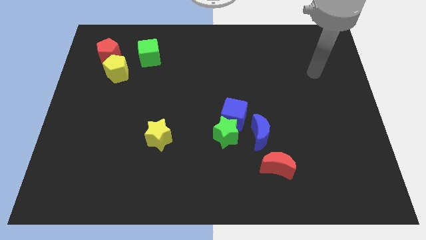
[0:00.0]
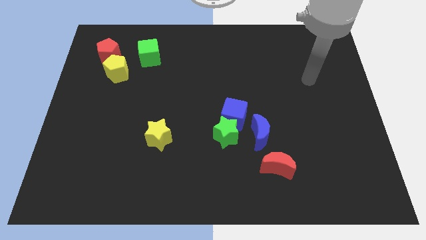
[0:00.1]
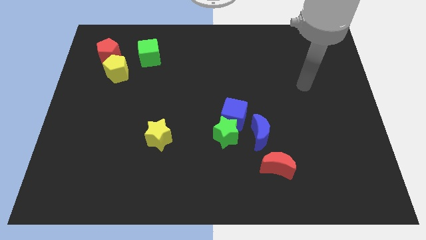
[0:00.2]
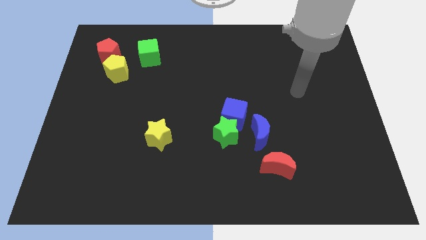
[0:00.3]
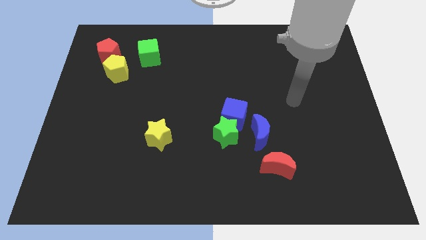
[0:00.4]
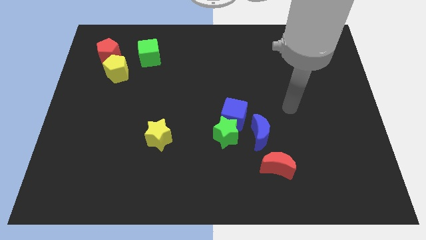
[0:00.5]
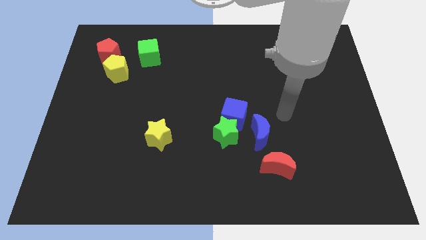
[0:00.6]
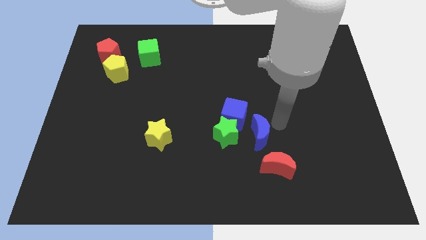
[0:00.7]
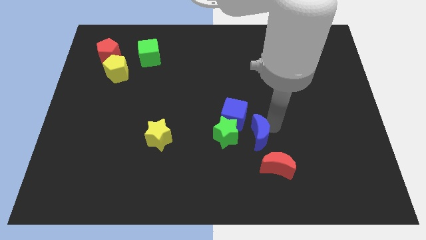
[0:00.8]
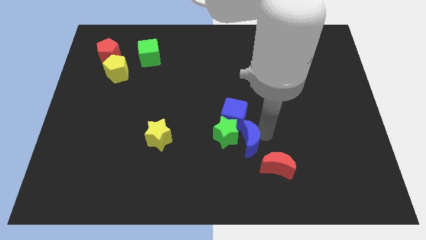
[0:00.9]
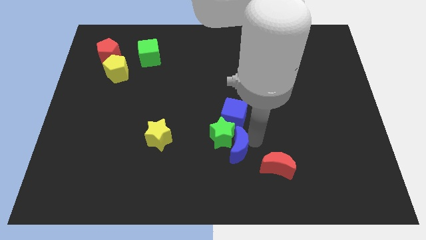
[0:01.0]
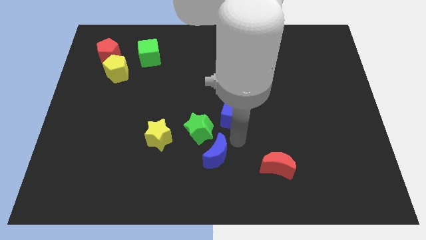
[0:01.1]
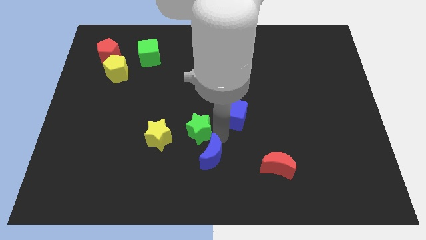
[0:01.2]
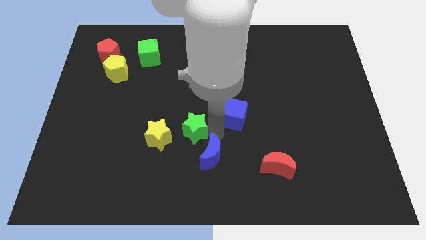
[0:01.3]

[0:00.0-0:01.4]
separate the blue cube from the green star and blue moon

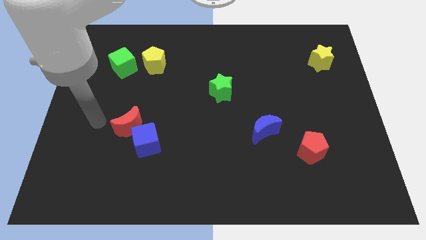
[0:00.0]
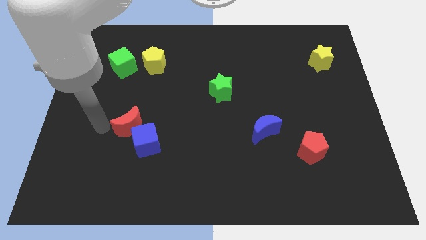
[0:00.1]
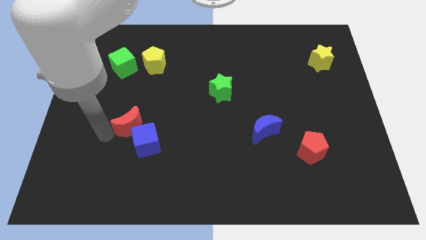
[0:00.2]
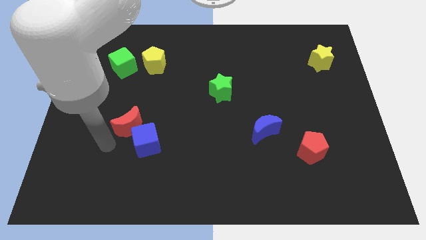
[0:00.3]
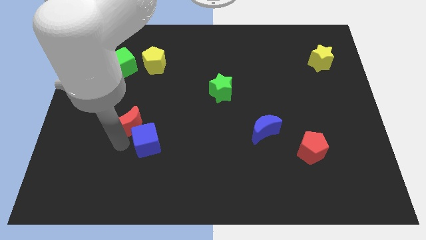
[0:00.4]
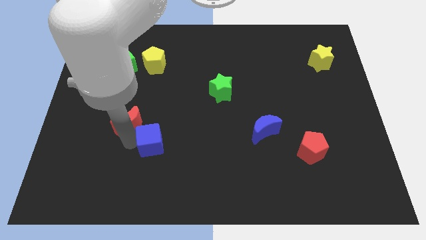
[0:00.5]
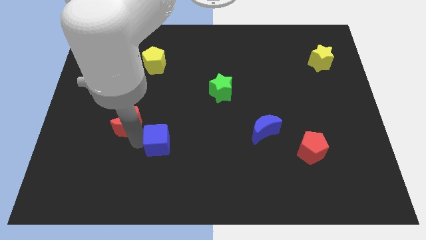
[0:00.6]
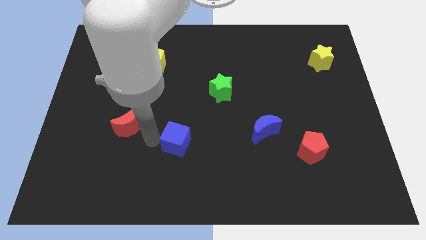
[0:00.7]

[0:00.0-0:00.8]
pull the red moon apart from the blue cube

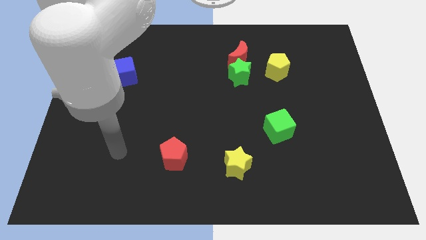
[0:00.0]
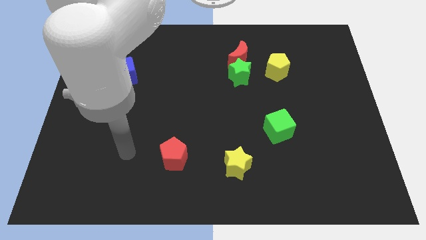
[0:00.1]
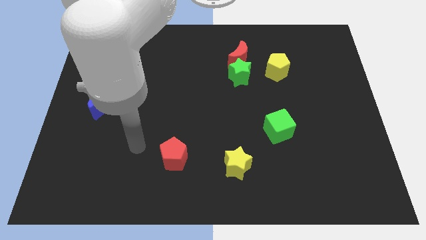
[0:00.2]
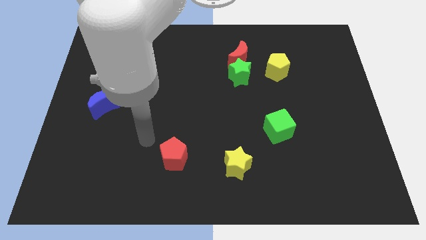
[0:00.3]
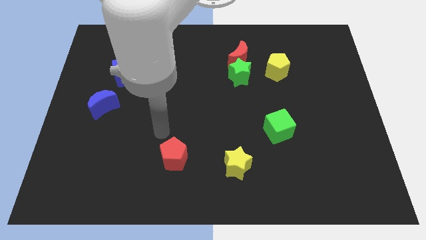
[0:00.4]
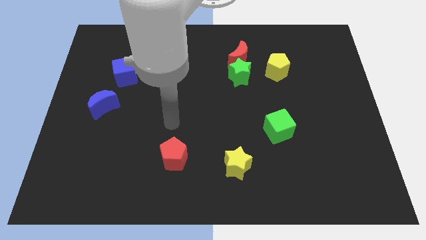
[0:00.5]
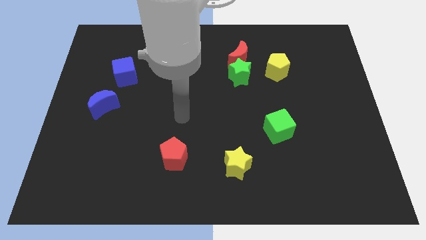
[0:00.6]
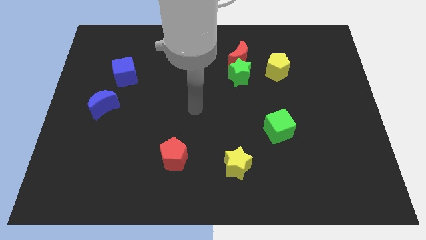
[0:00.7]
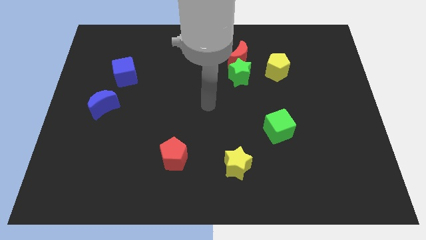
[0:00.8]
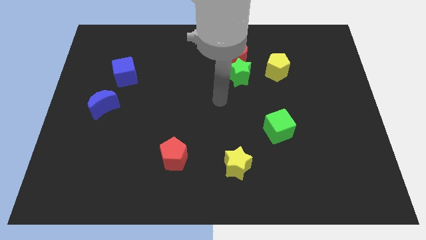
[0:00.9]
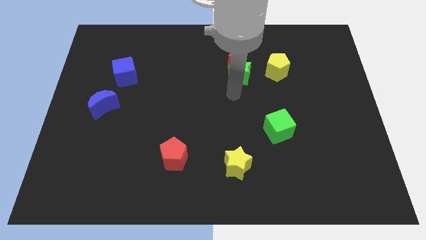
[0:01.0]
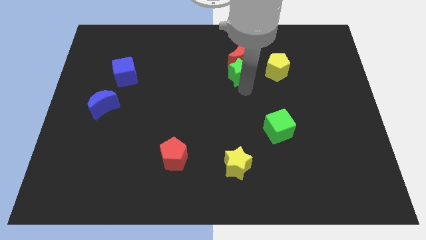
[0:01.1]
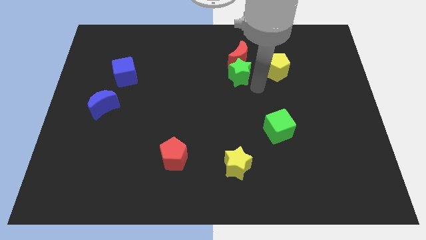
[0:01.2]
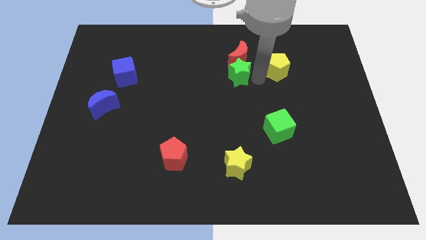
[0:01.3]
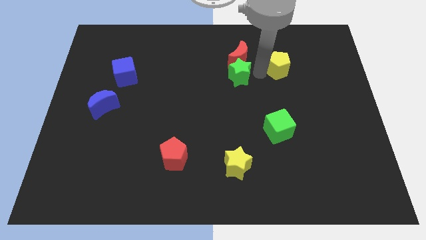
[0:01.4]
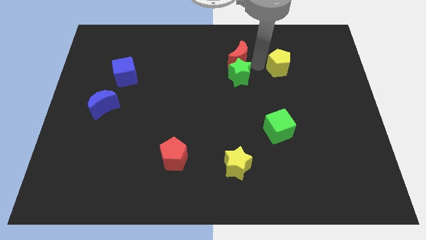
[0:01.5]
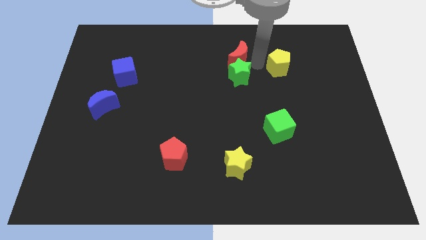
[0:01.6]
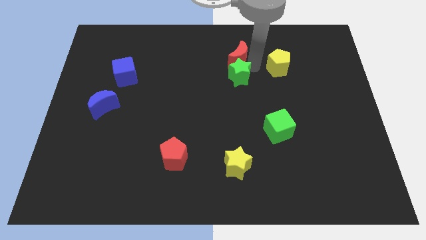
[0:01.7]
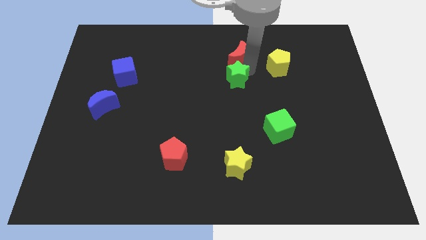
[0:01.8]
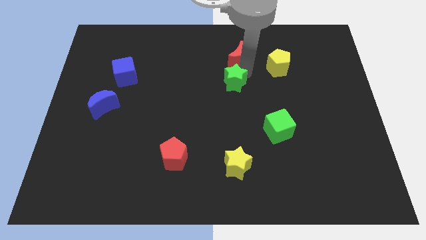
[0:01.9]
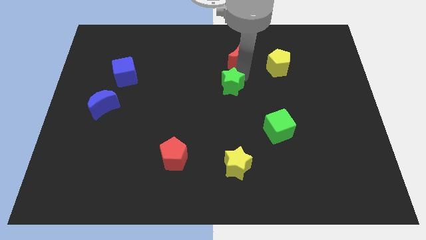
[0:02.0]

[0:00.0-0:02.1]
move the green star away from the red moon and yellow pentagon

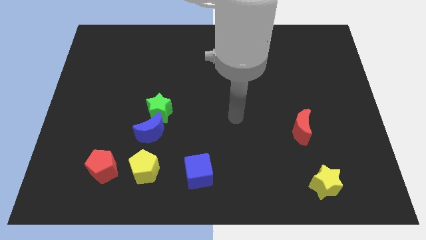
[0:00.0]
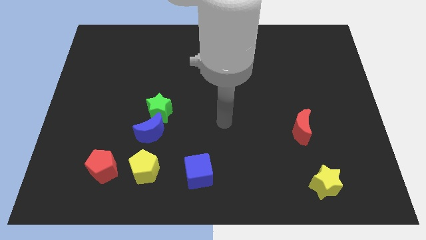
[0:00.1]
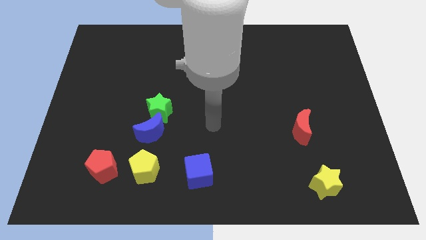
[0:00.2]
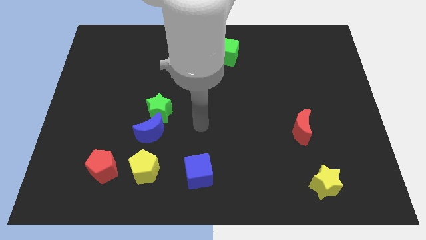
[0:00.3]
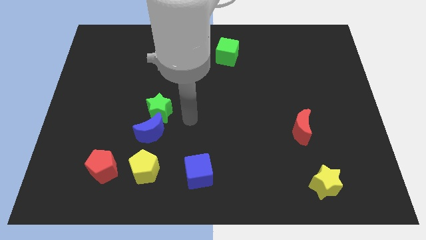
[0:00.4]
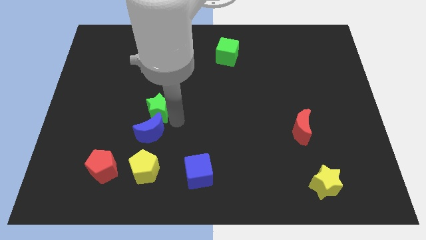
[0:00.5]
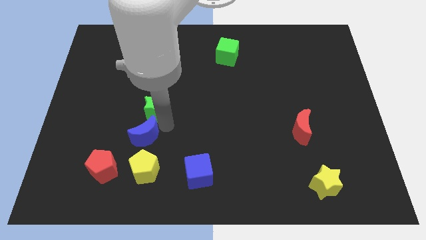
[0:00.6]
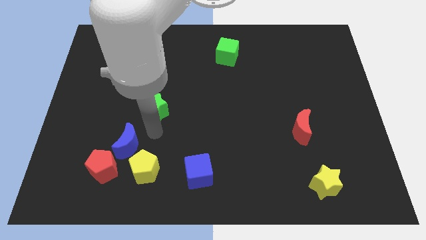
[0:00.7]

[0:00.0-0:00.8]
separate the green star from the blue moon

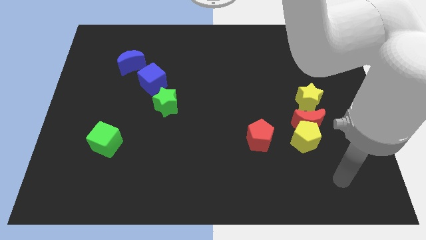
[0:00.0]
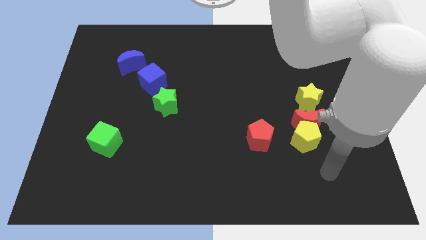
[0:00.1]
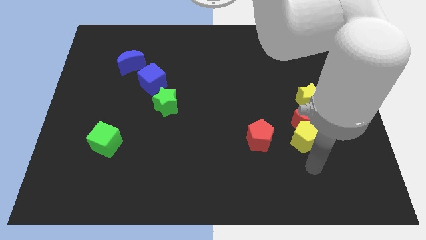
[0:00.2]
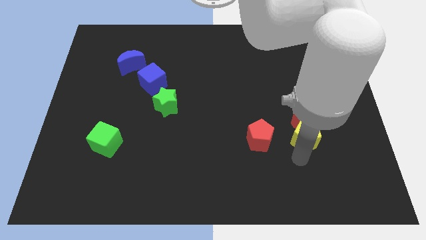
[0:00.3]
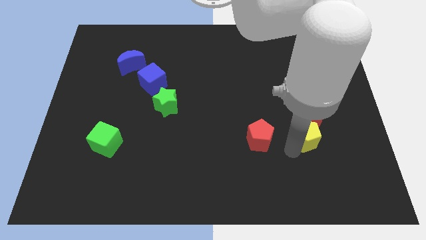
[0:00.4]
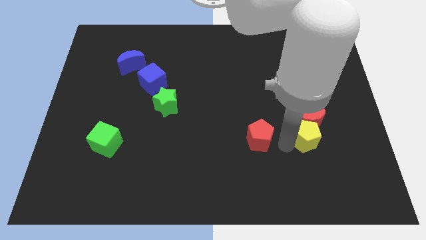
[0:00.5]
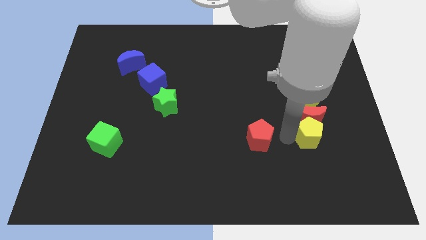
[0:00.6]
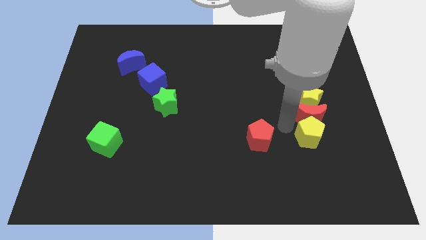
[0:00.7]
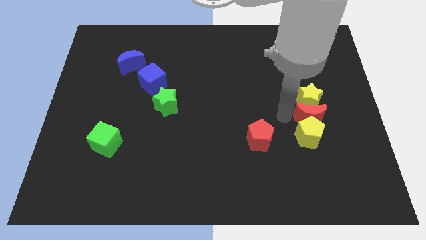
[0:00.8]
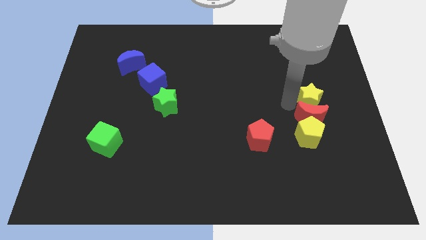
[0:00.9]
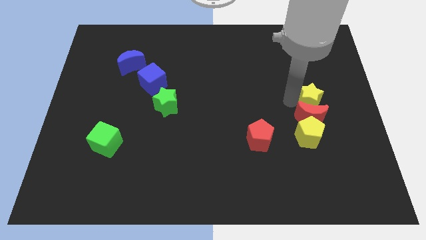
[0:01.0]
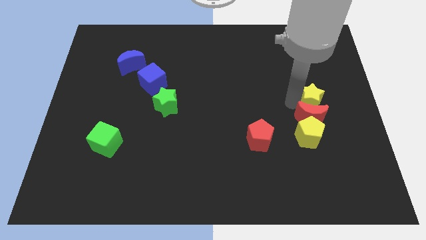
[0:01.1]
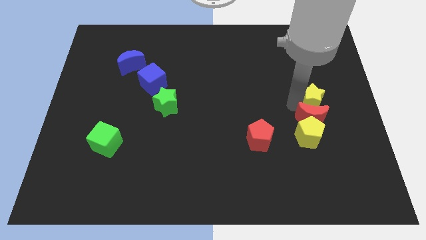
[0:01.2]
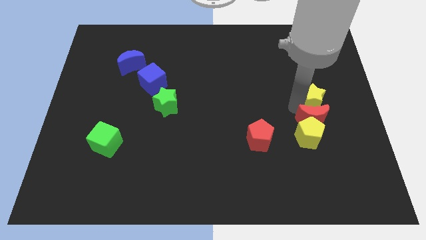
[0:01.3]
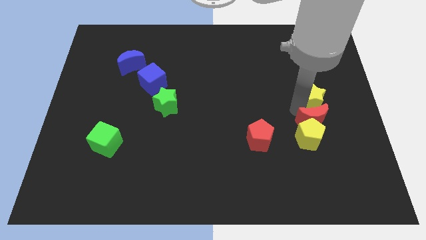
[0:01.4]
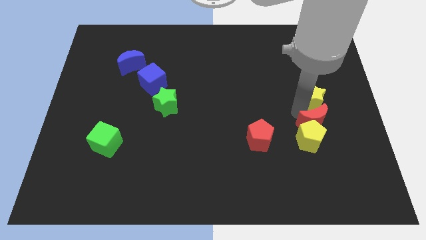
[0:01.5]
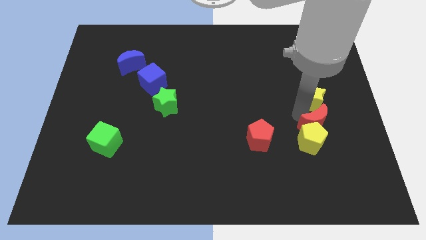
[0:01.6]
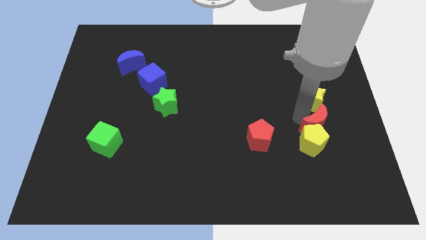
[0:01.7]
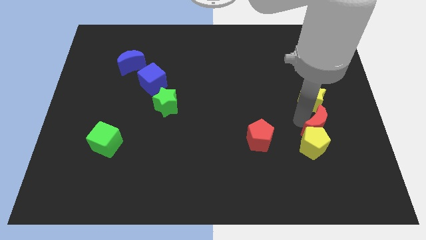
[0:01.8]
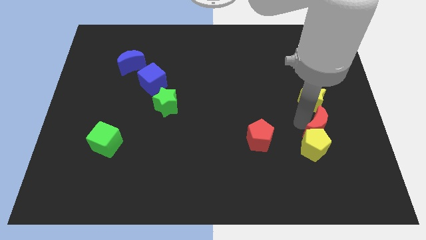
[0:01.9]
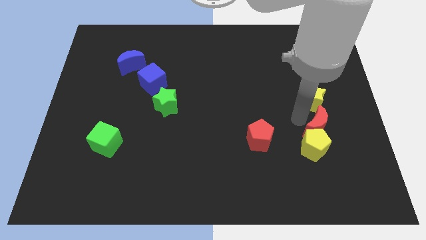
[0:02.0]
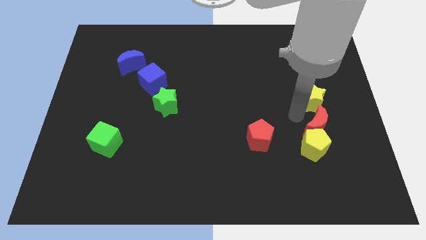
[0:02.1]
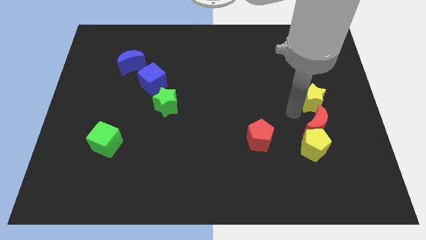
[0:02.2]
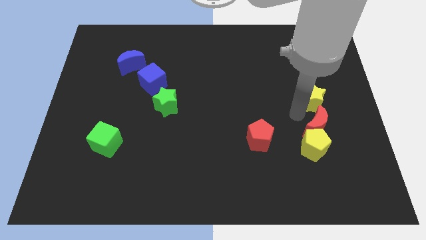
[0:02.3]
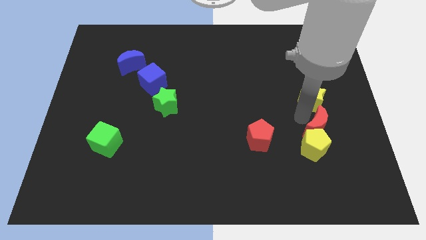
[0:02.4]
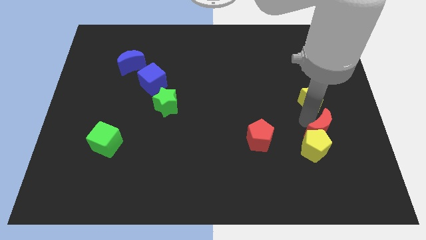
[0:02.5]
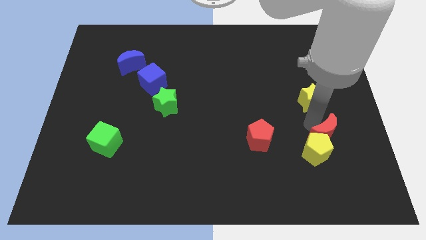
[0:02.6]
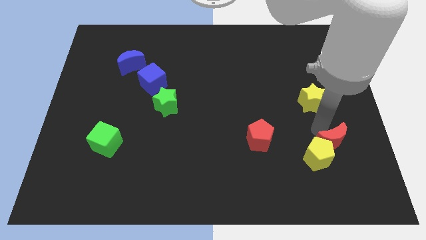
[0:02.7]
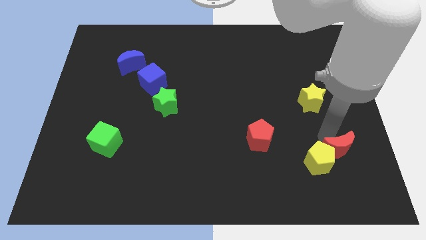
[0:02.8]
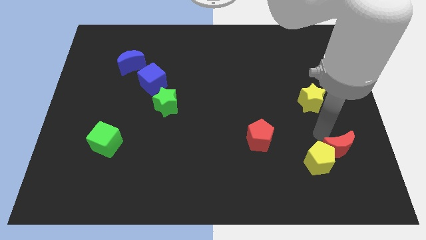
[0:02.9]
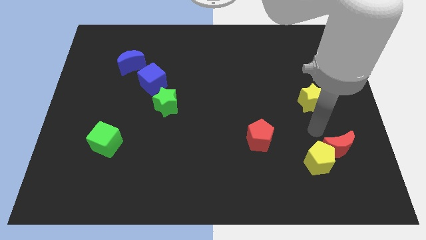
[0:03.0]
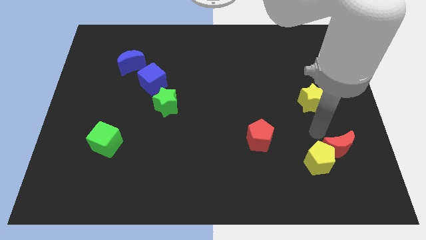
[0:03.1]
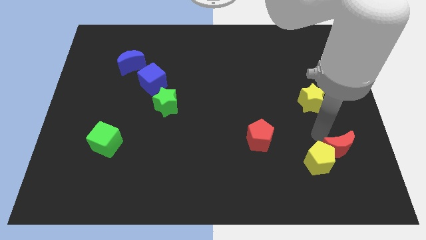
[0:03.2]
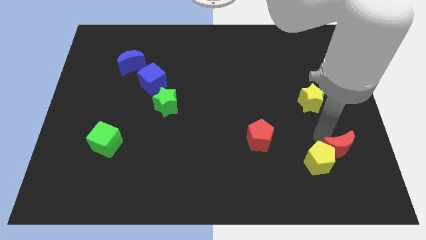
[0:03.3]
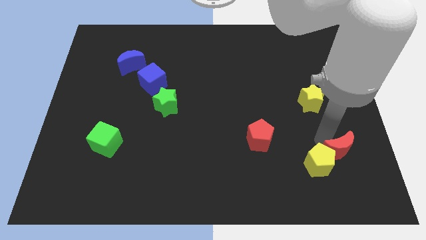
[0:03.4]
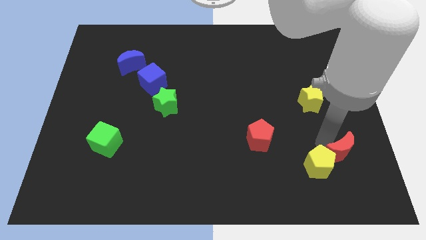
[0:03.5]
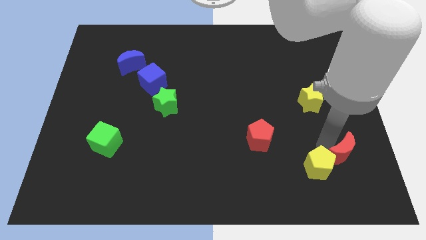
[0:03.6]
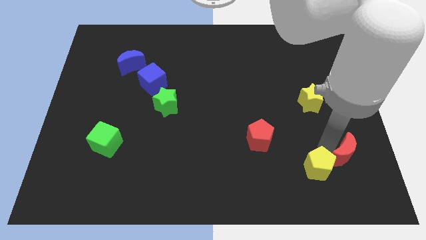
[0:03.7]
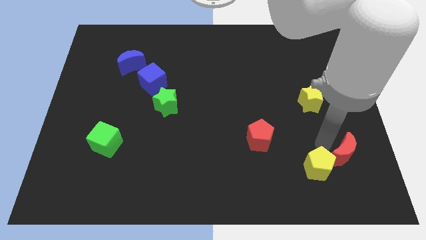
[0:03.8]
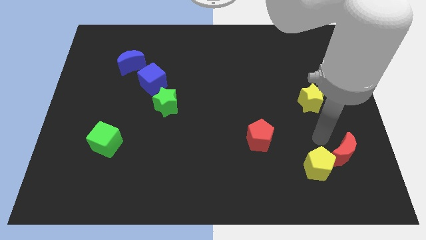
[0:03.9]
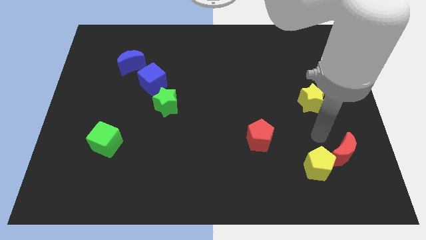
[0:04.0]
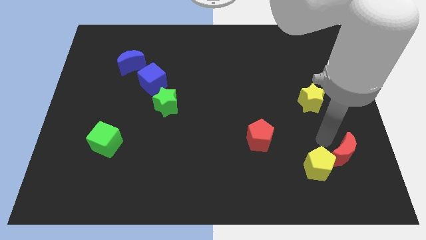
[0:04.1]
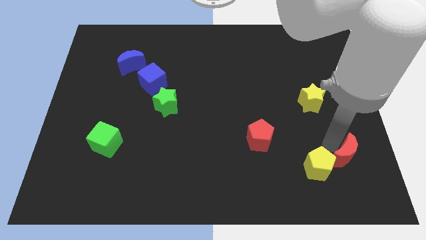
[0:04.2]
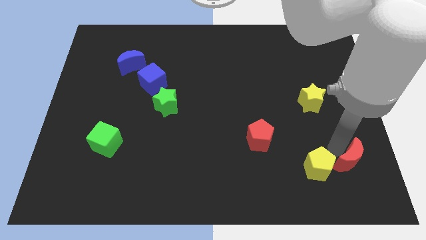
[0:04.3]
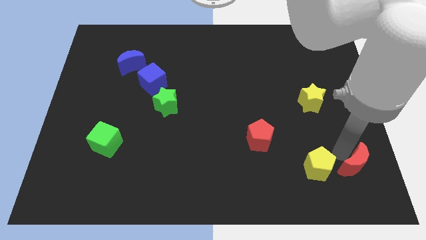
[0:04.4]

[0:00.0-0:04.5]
separate the red moon from the yellow pentagon and yellow star
